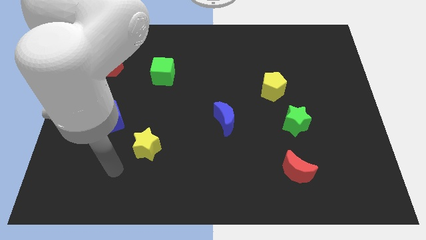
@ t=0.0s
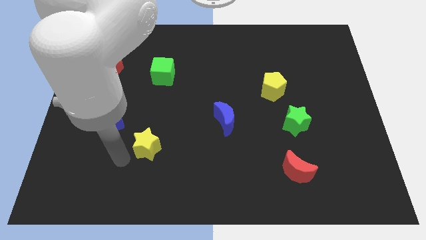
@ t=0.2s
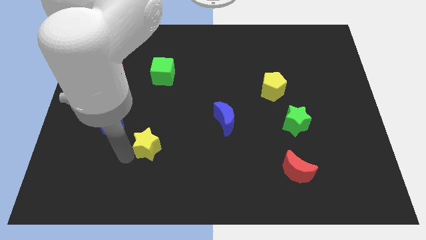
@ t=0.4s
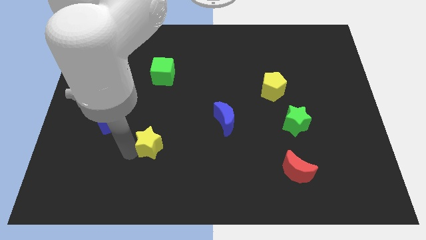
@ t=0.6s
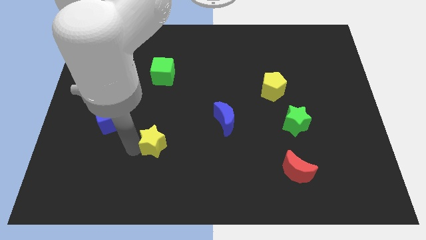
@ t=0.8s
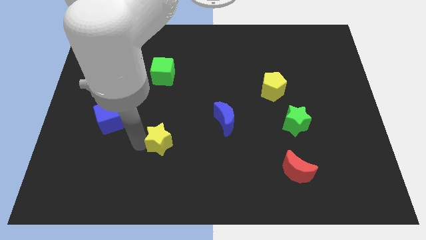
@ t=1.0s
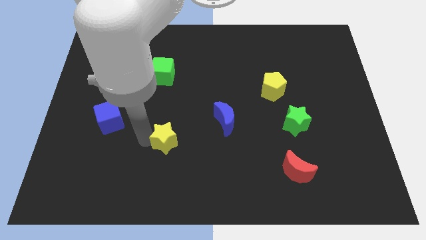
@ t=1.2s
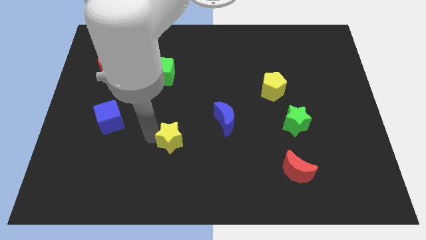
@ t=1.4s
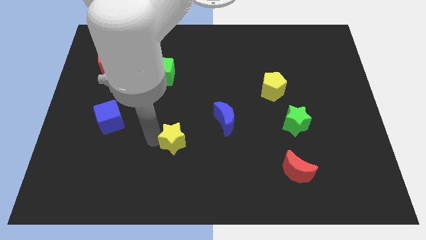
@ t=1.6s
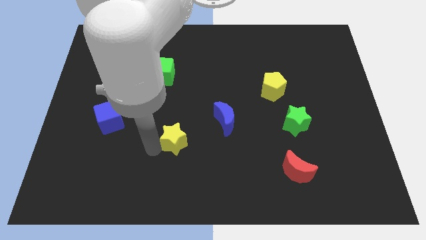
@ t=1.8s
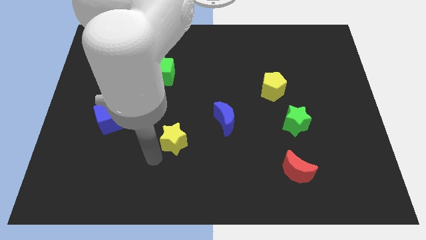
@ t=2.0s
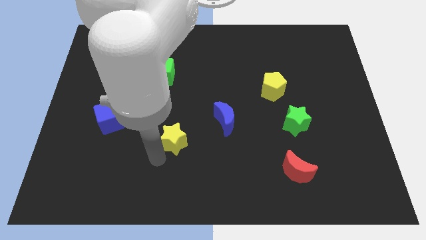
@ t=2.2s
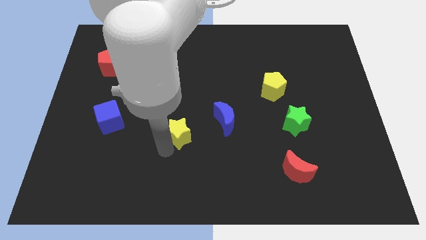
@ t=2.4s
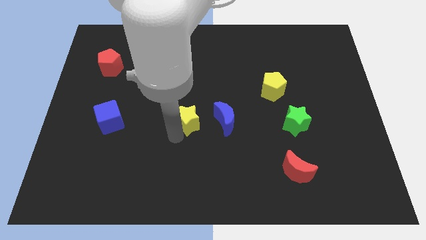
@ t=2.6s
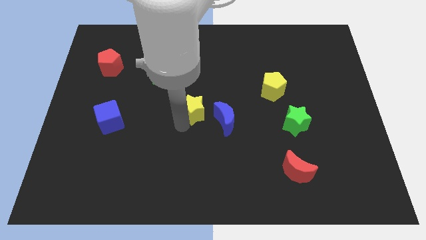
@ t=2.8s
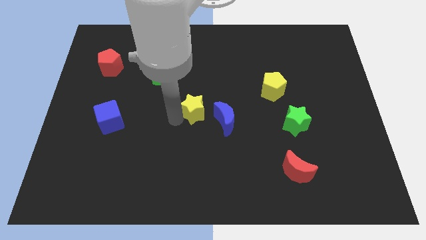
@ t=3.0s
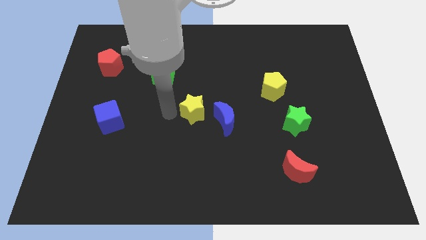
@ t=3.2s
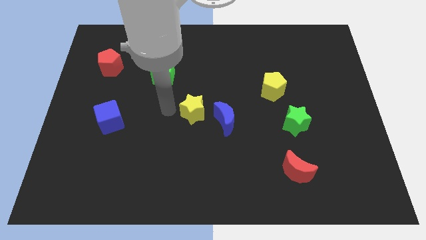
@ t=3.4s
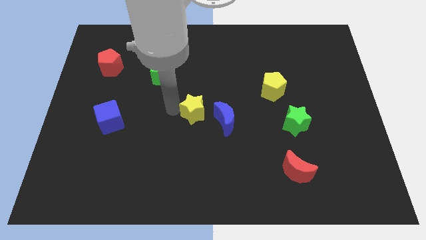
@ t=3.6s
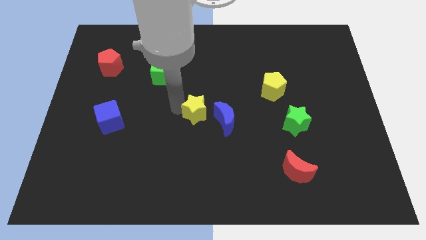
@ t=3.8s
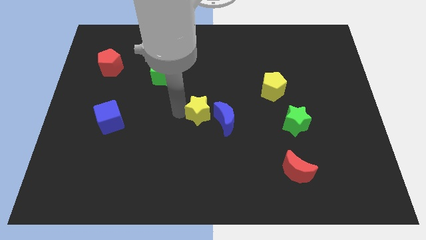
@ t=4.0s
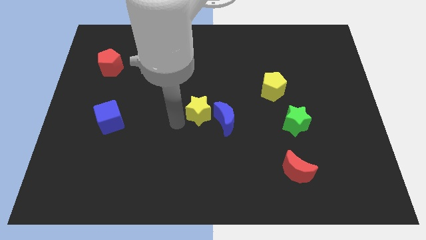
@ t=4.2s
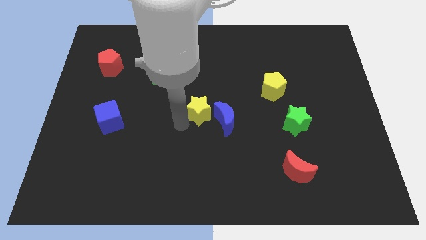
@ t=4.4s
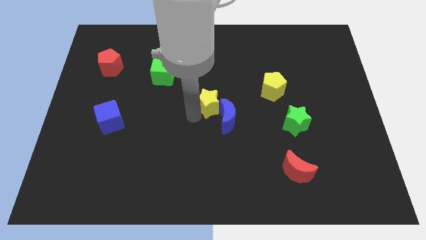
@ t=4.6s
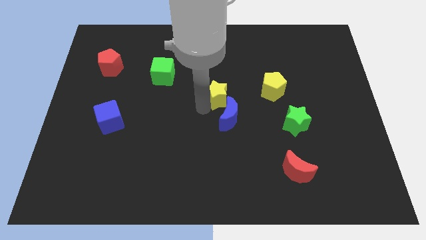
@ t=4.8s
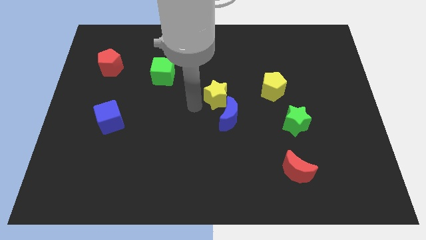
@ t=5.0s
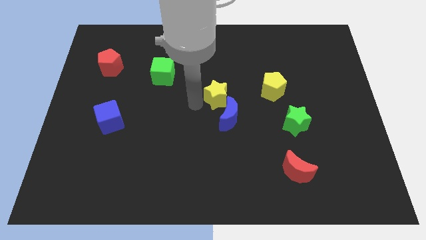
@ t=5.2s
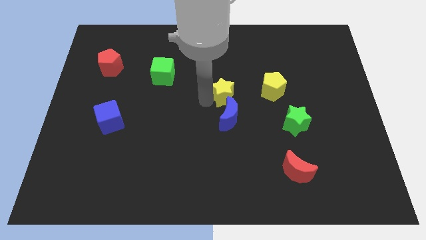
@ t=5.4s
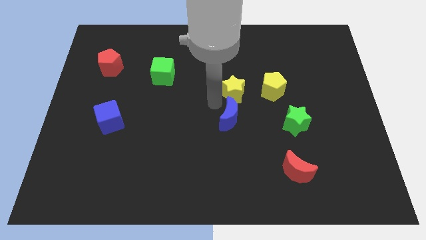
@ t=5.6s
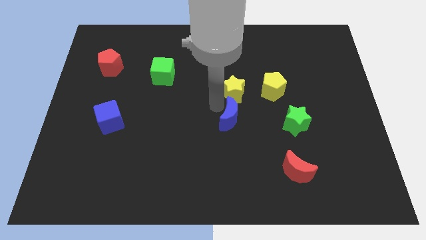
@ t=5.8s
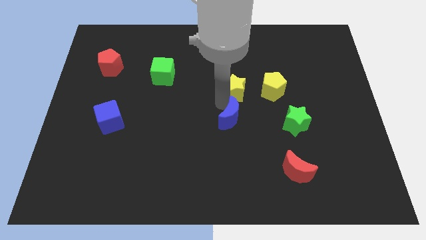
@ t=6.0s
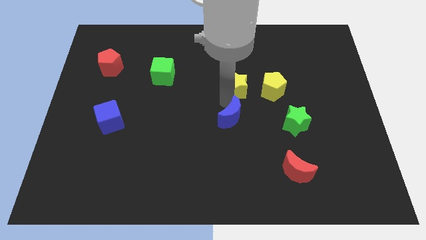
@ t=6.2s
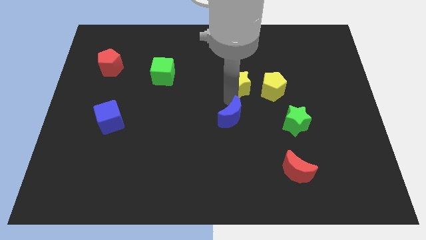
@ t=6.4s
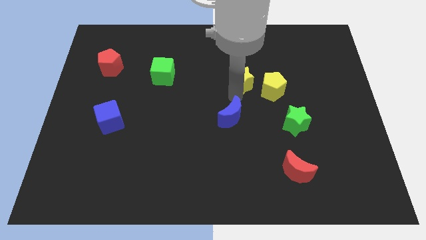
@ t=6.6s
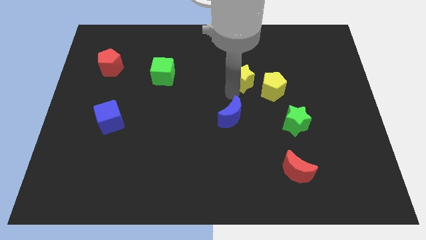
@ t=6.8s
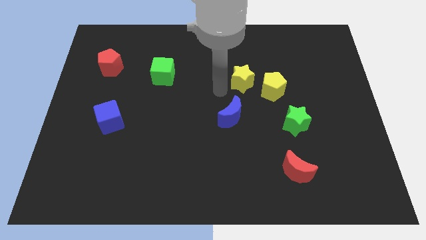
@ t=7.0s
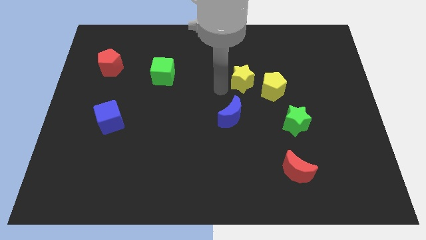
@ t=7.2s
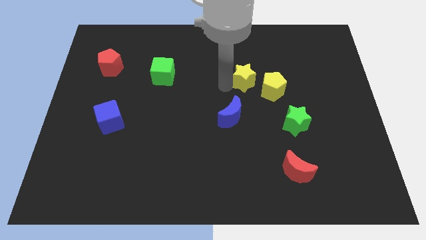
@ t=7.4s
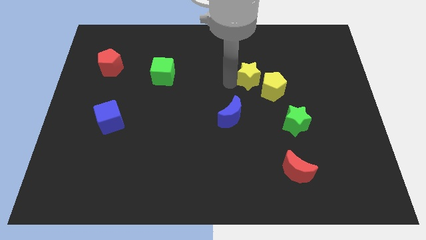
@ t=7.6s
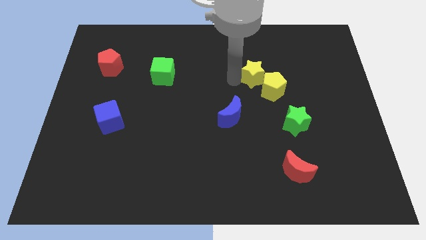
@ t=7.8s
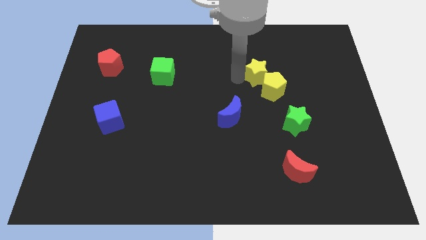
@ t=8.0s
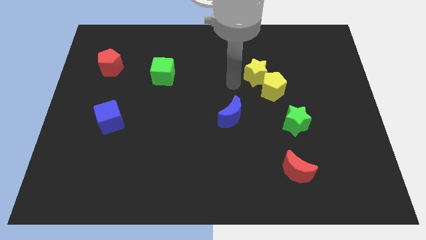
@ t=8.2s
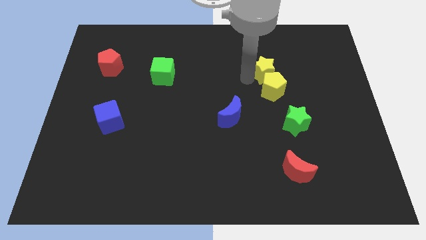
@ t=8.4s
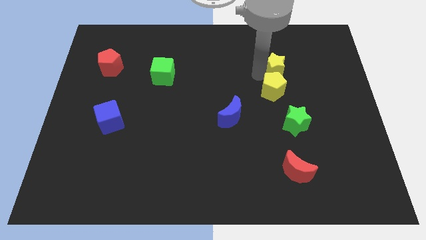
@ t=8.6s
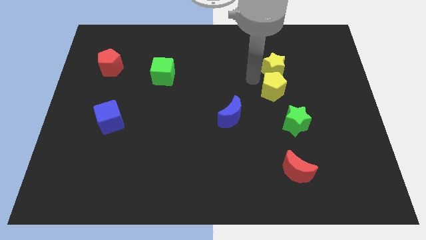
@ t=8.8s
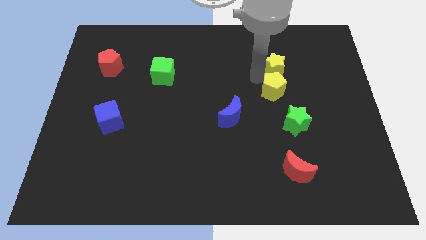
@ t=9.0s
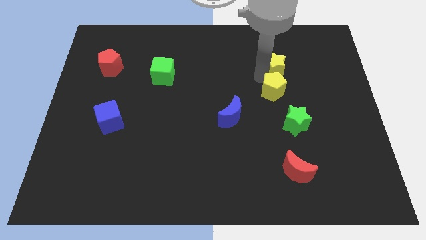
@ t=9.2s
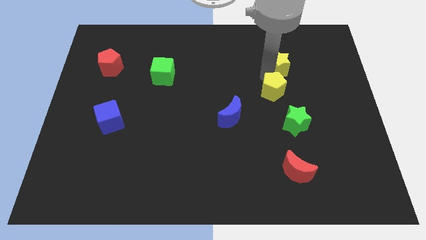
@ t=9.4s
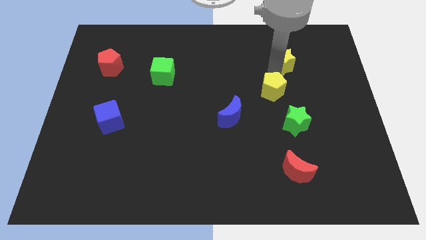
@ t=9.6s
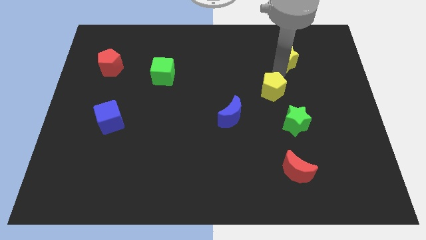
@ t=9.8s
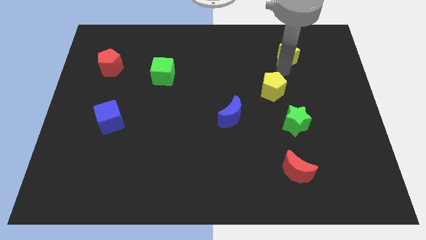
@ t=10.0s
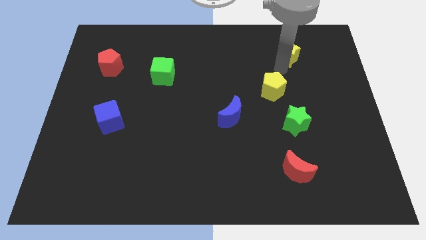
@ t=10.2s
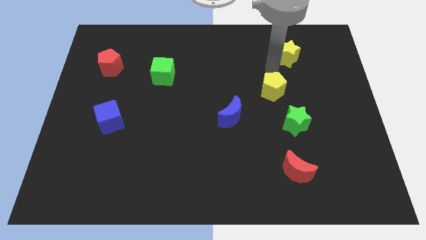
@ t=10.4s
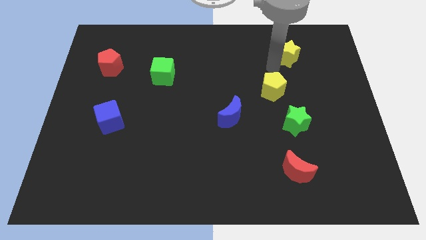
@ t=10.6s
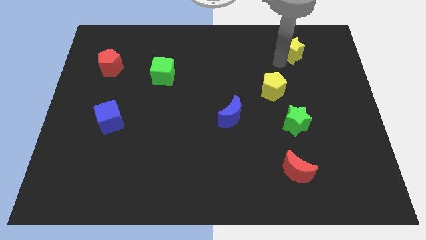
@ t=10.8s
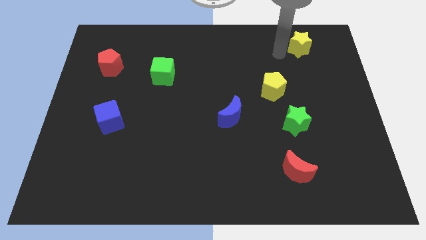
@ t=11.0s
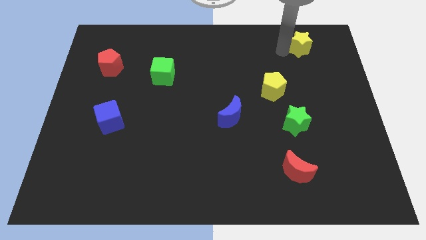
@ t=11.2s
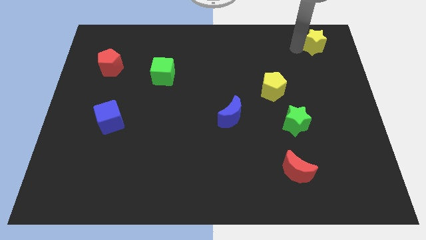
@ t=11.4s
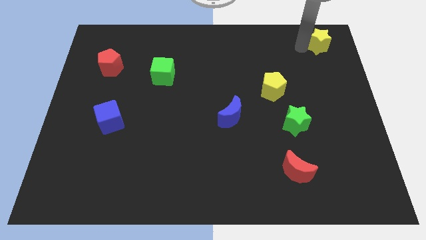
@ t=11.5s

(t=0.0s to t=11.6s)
move the yellow star to the upper right corner
